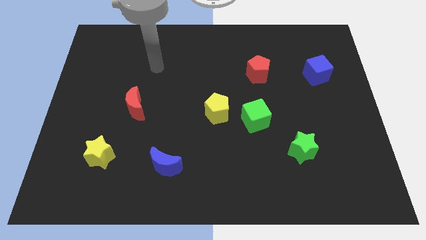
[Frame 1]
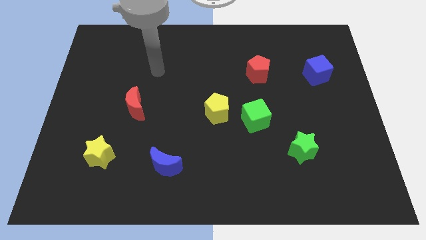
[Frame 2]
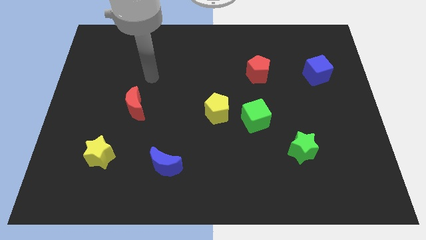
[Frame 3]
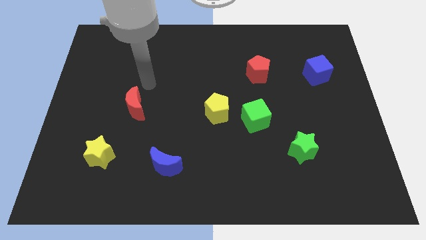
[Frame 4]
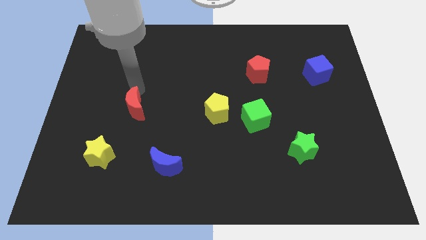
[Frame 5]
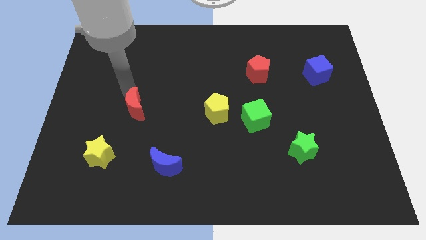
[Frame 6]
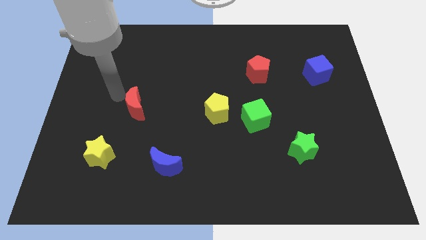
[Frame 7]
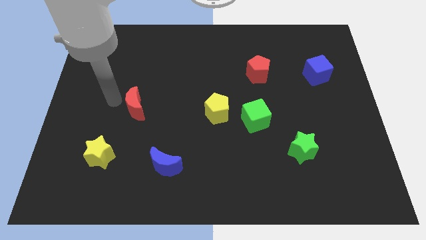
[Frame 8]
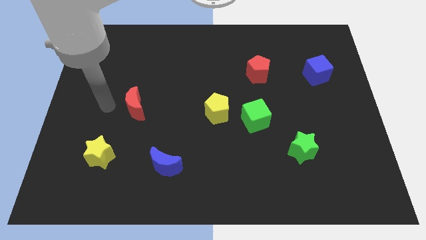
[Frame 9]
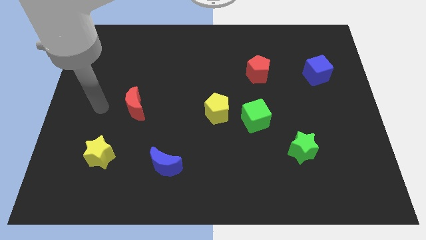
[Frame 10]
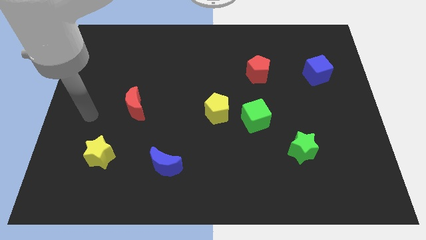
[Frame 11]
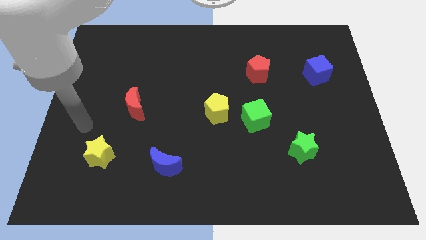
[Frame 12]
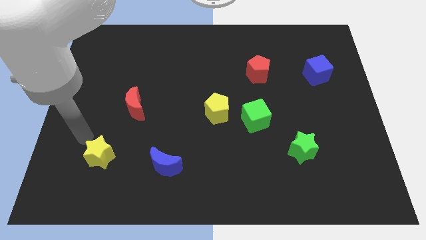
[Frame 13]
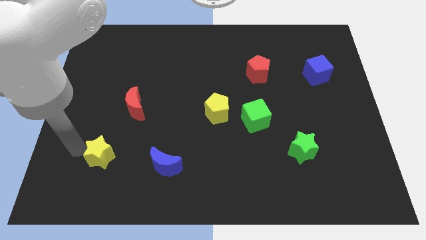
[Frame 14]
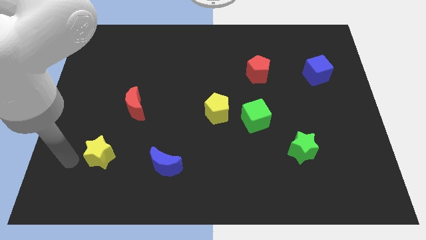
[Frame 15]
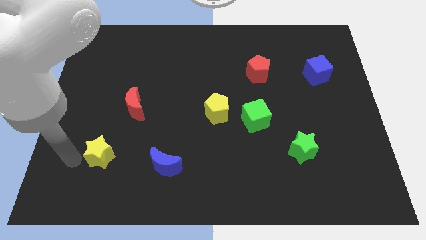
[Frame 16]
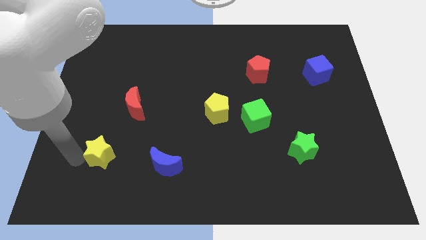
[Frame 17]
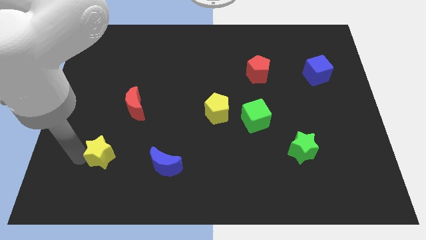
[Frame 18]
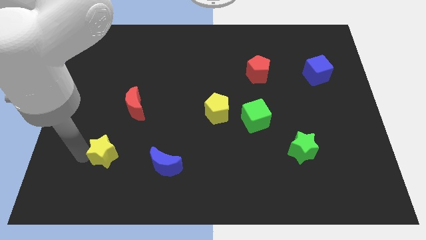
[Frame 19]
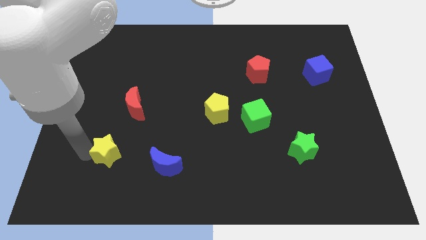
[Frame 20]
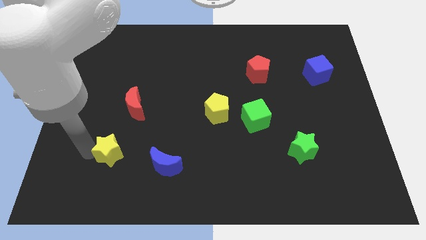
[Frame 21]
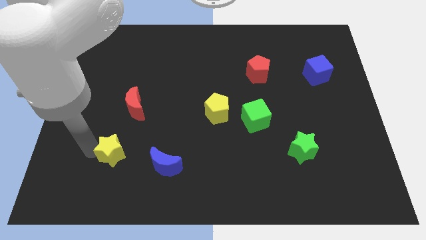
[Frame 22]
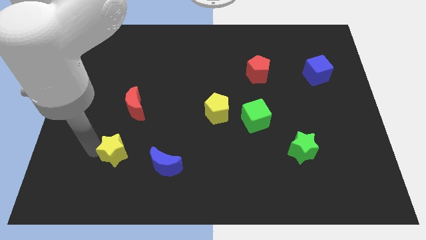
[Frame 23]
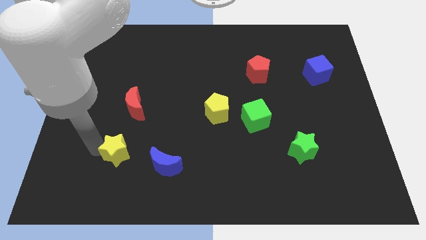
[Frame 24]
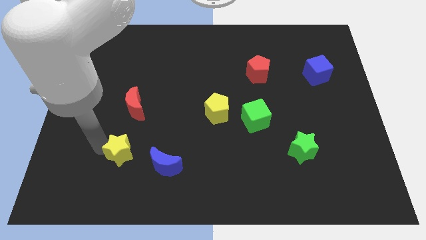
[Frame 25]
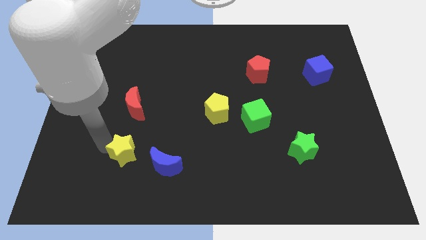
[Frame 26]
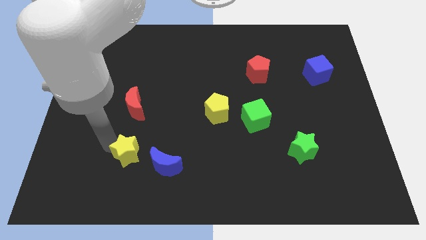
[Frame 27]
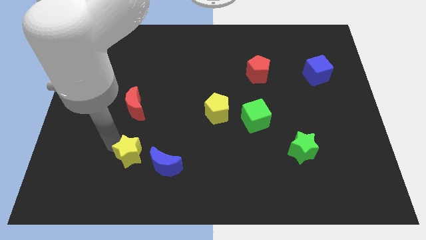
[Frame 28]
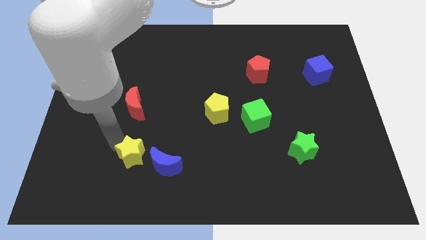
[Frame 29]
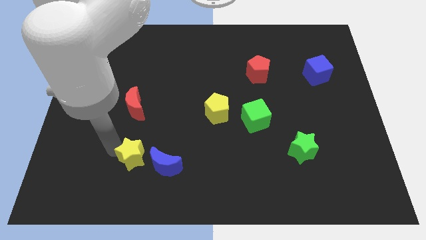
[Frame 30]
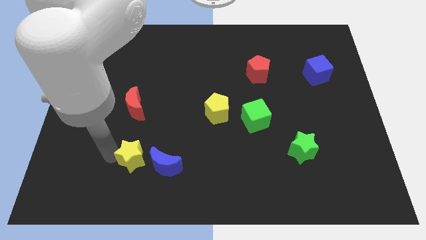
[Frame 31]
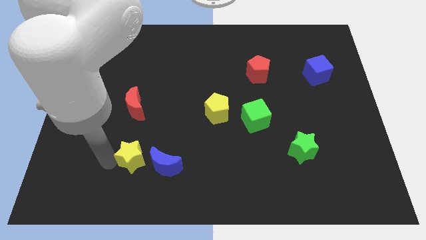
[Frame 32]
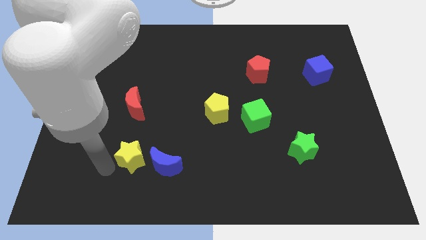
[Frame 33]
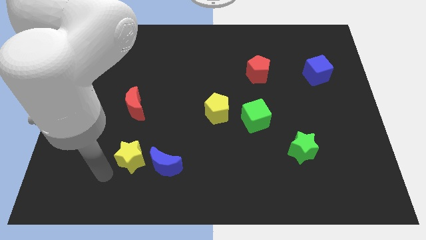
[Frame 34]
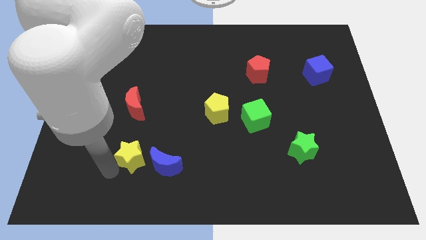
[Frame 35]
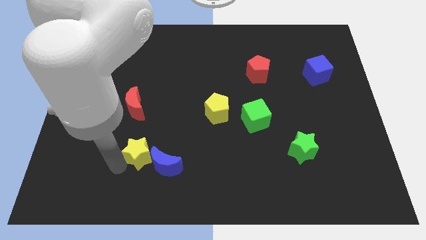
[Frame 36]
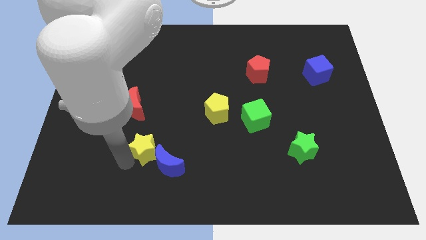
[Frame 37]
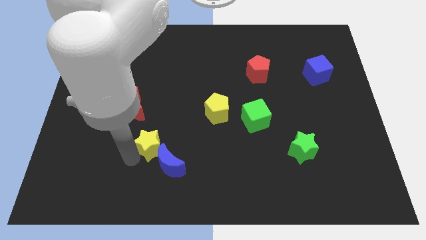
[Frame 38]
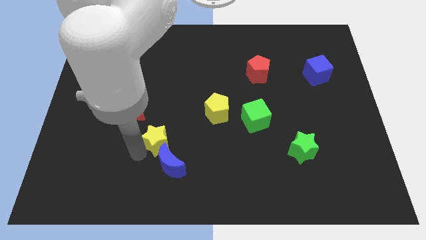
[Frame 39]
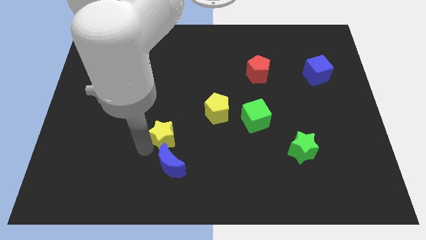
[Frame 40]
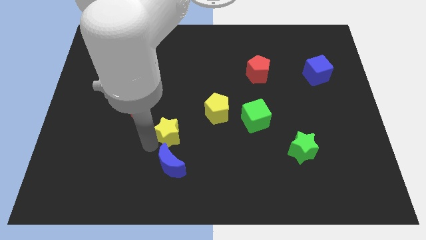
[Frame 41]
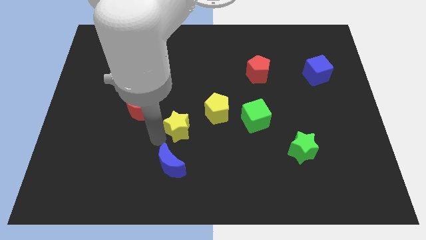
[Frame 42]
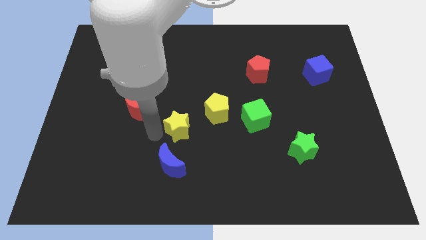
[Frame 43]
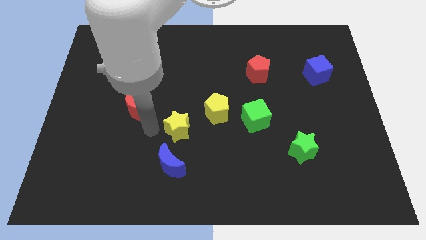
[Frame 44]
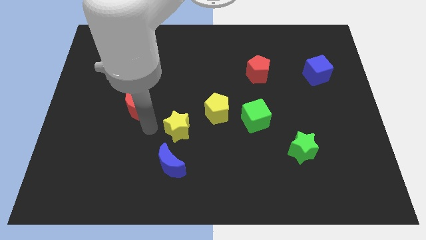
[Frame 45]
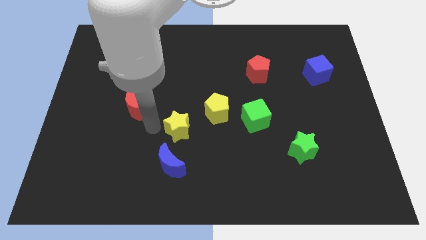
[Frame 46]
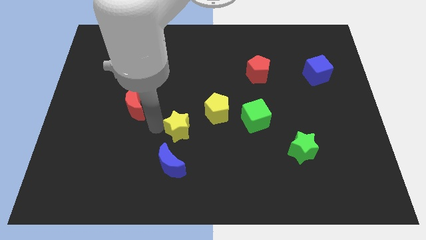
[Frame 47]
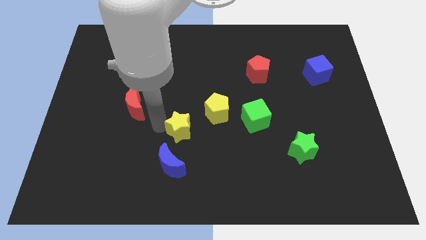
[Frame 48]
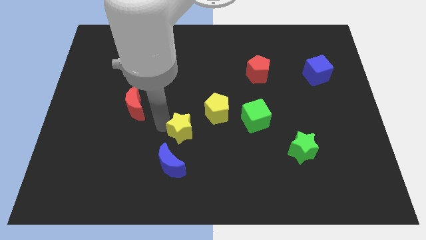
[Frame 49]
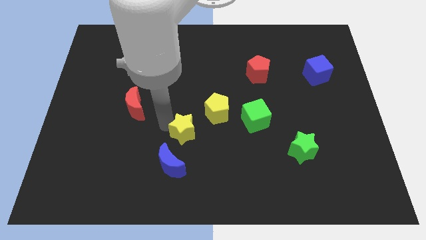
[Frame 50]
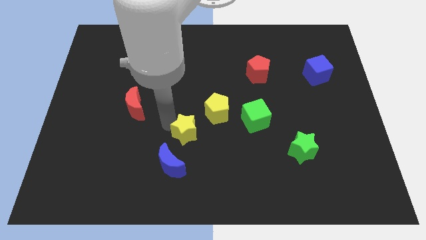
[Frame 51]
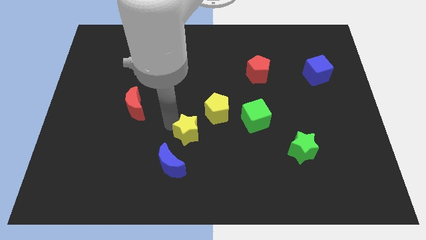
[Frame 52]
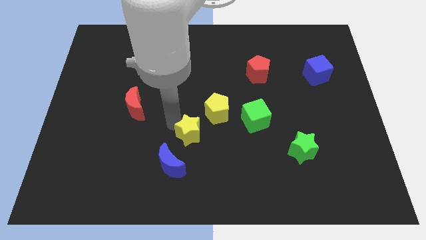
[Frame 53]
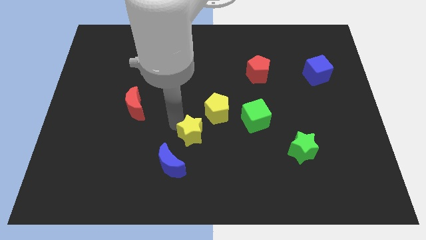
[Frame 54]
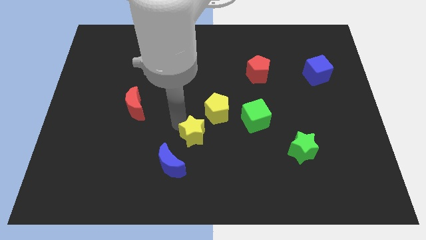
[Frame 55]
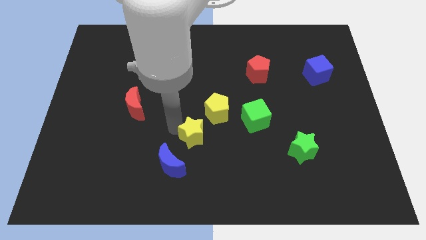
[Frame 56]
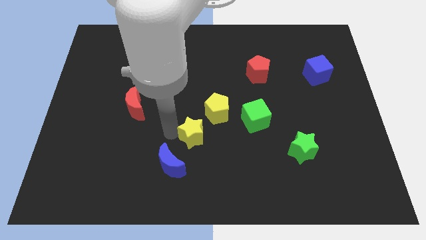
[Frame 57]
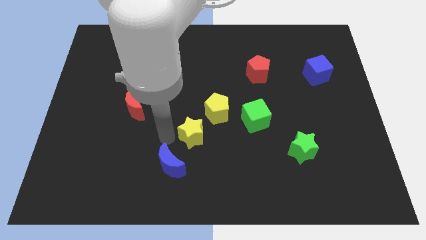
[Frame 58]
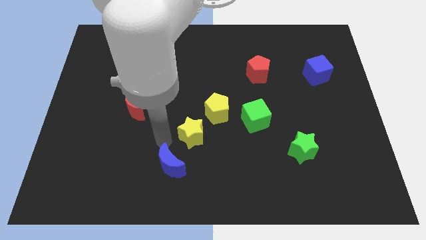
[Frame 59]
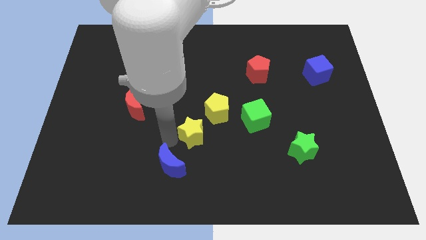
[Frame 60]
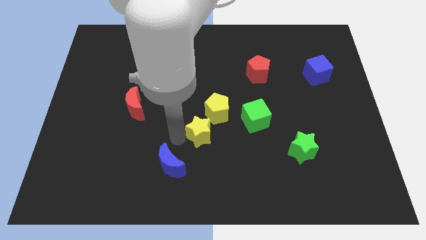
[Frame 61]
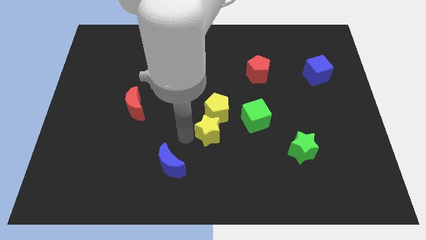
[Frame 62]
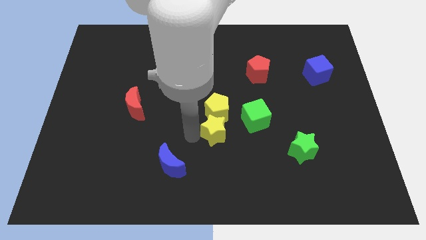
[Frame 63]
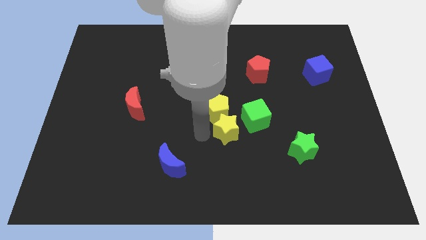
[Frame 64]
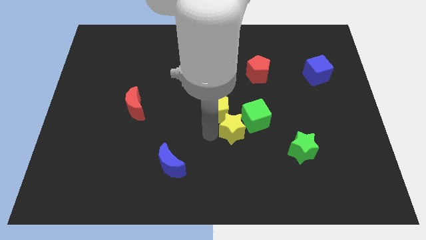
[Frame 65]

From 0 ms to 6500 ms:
push the yellow star close to the green cube
